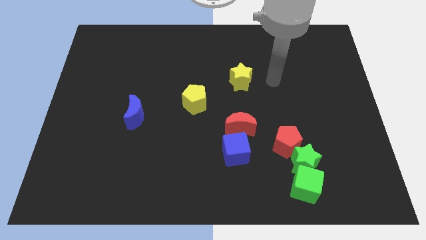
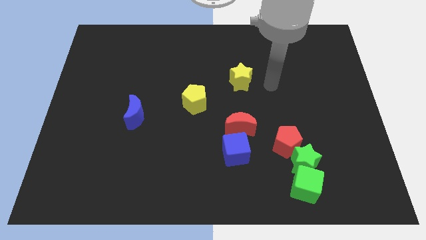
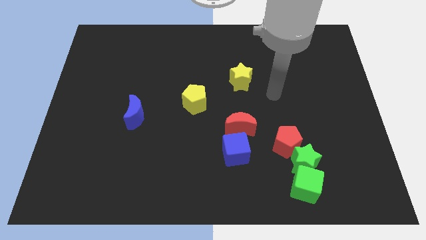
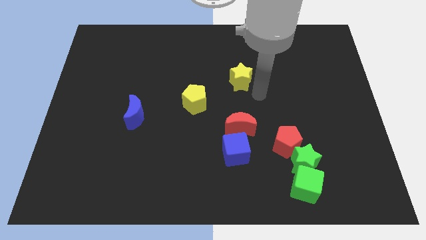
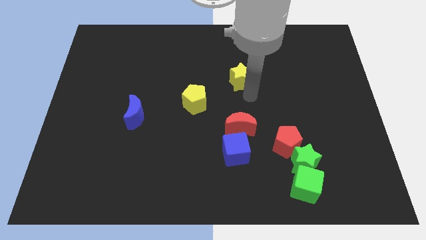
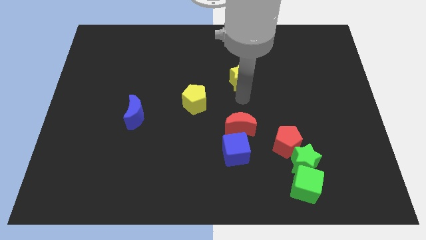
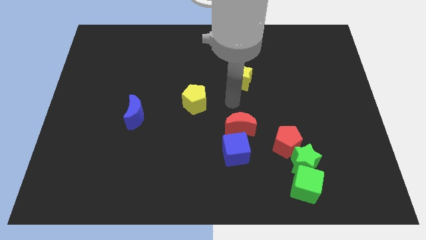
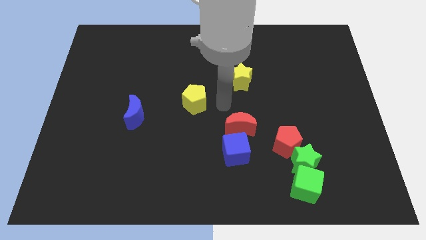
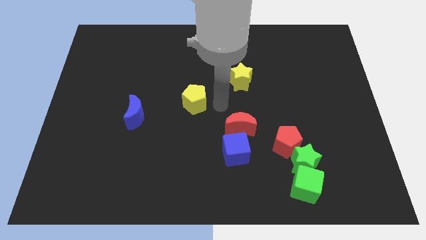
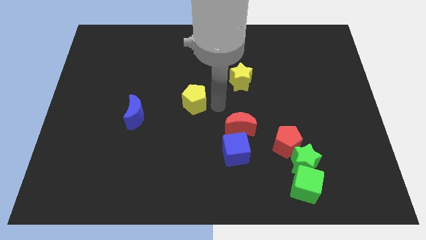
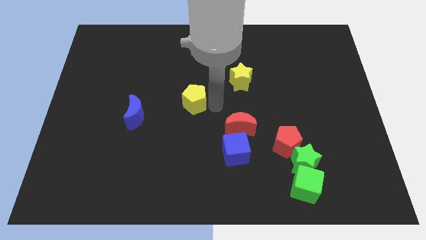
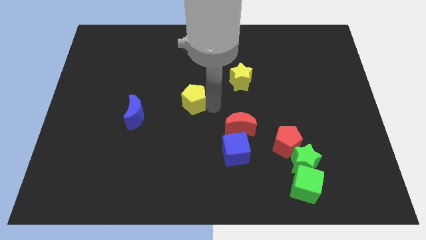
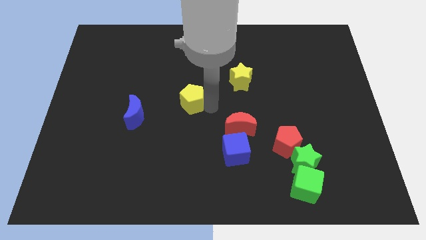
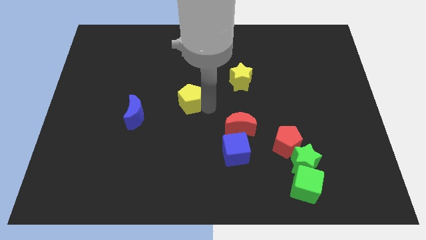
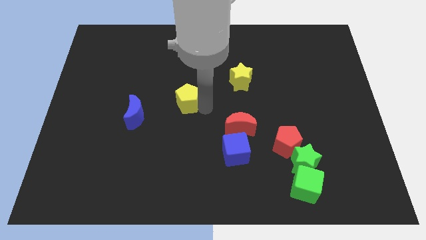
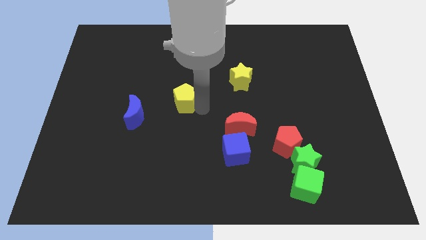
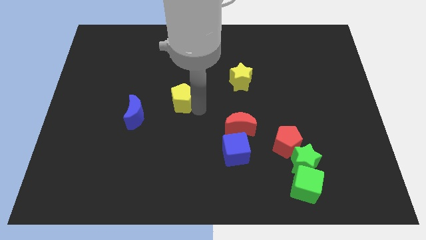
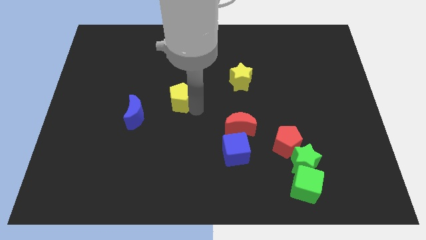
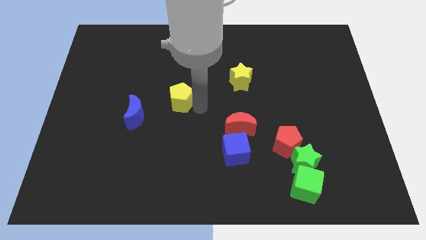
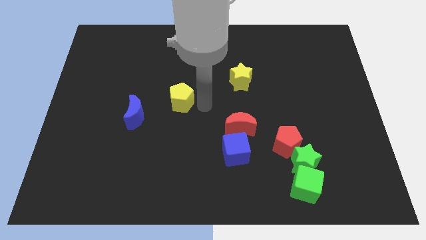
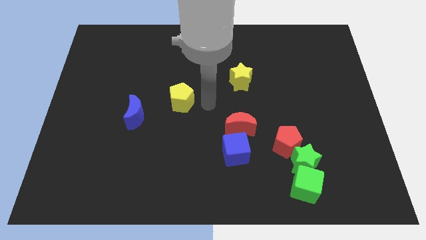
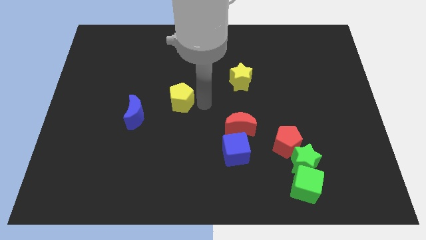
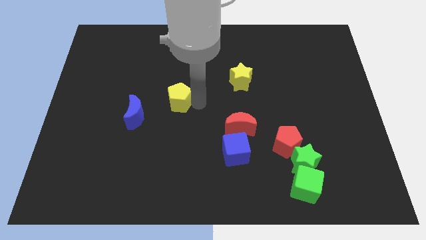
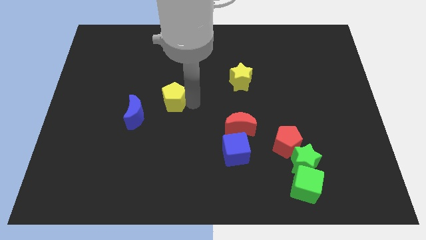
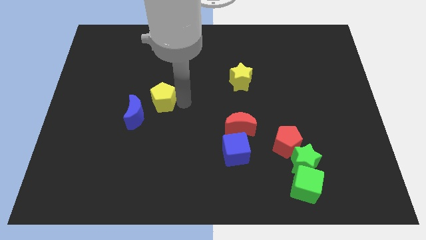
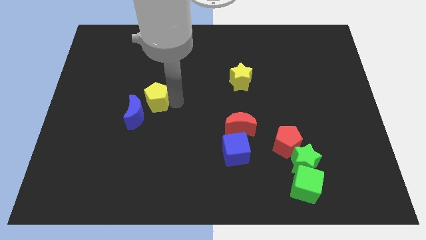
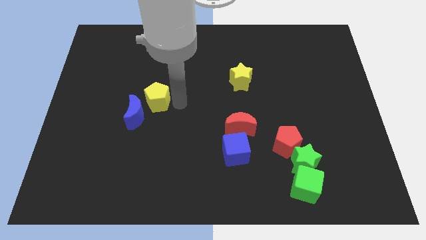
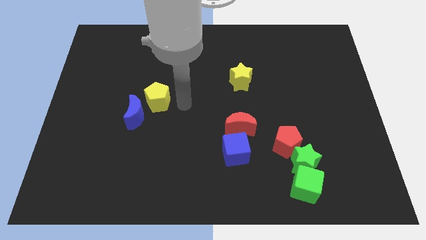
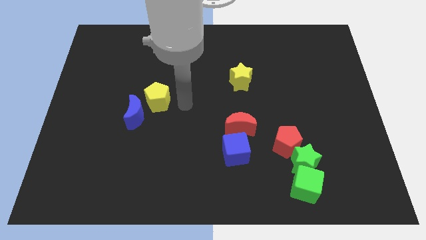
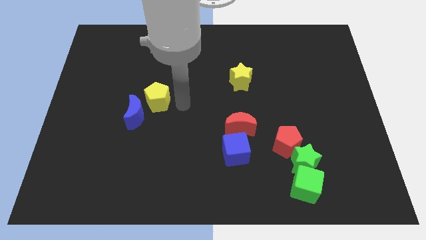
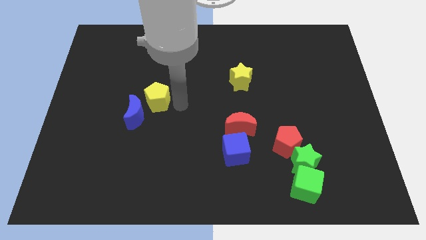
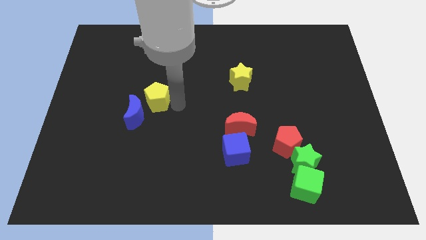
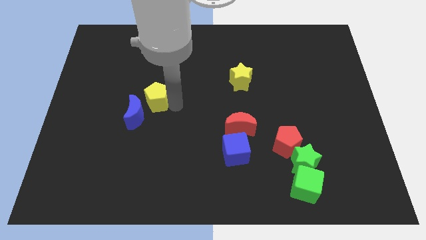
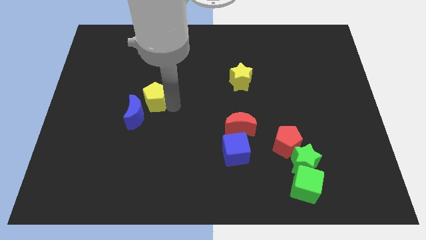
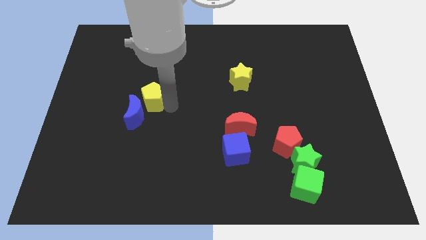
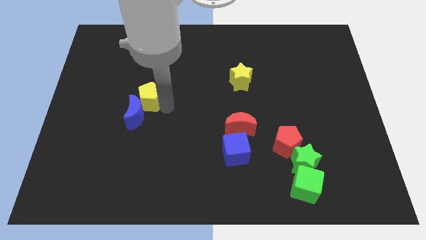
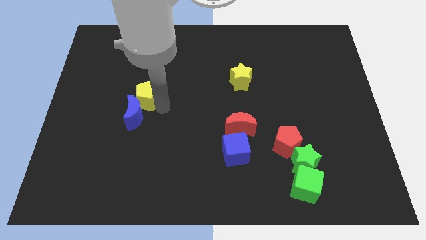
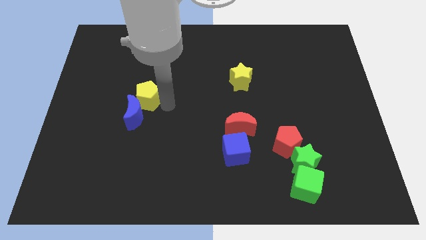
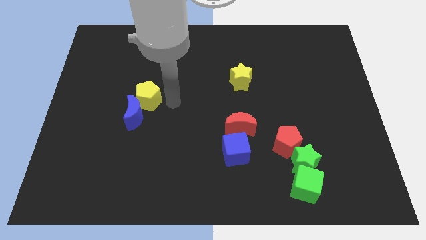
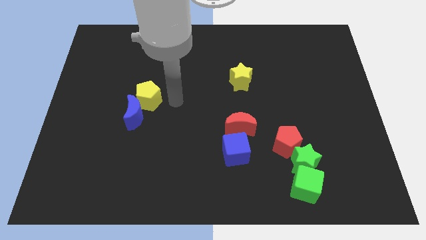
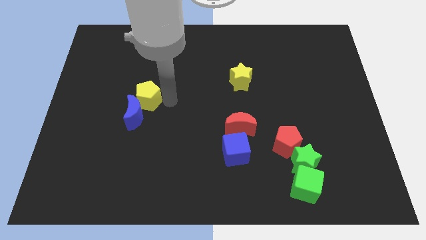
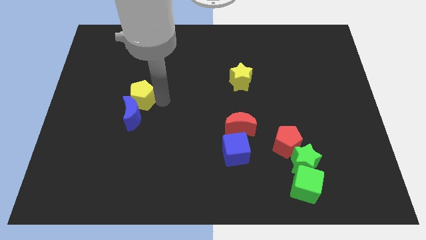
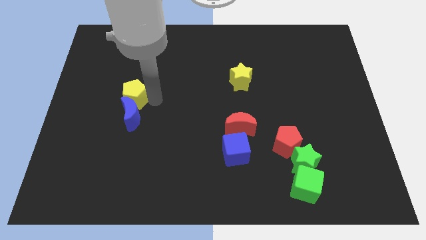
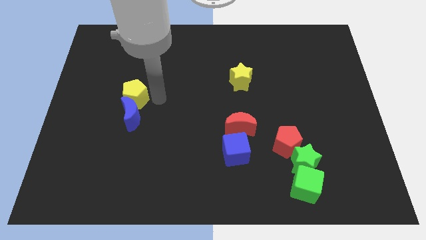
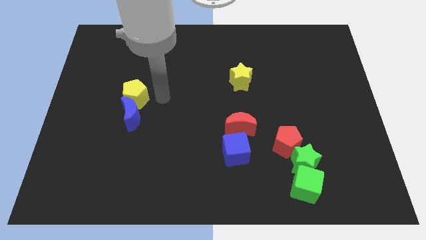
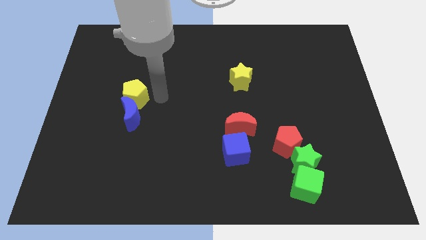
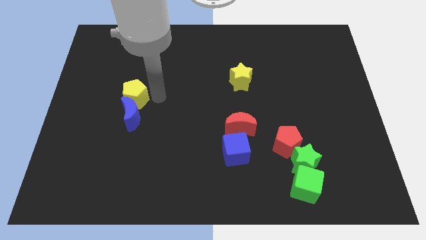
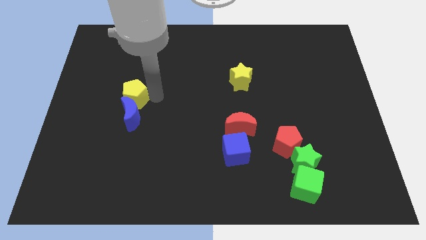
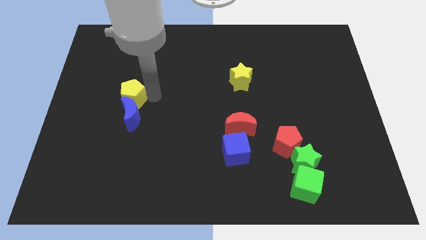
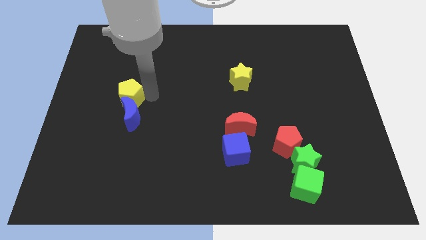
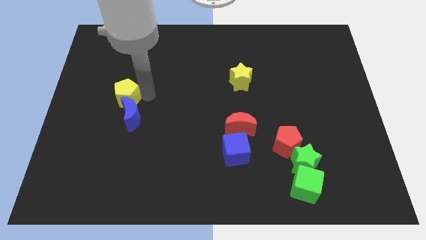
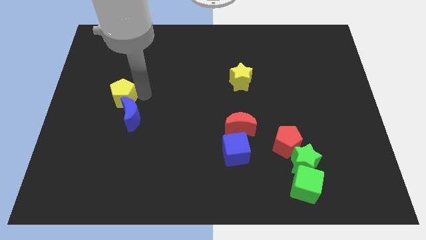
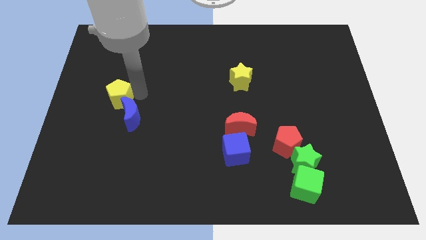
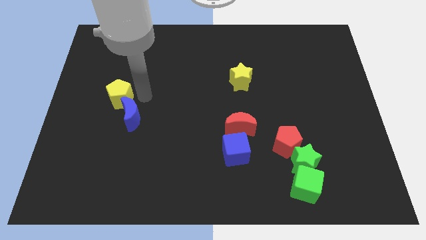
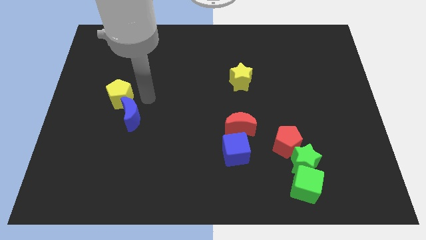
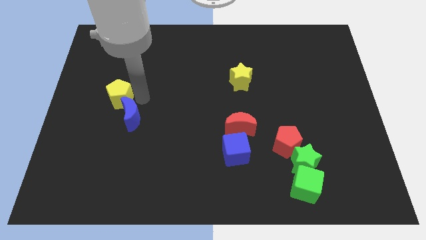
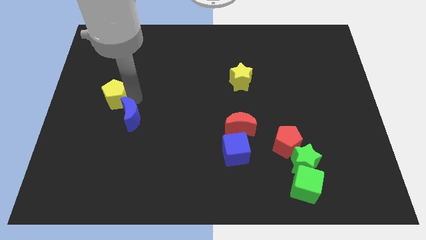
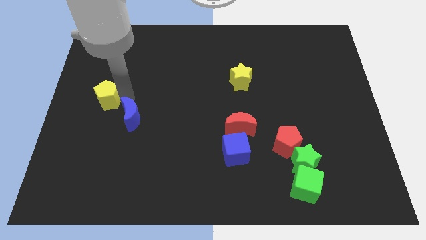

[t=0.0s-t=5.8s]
slide the yellow pentagon to the left side of the board
